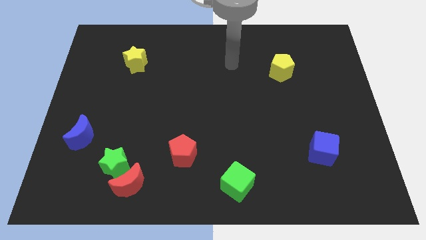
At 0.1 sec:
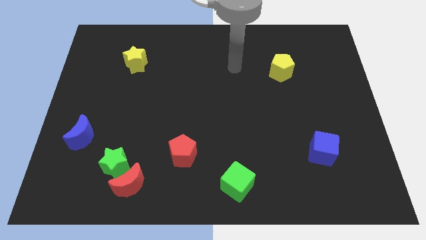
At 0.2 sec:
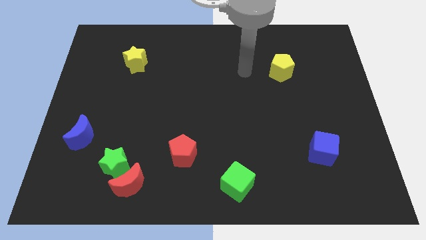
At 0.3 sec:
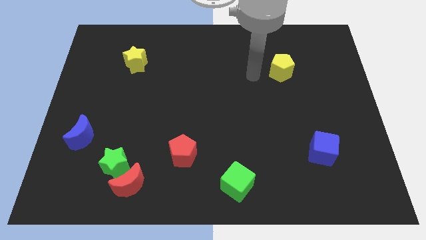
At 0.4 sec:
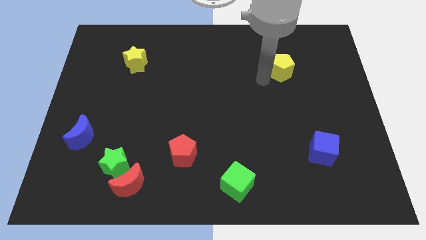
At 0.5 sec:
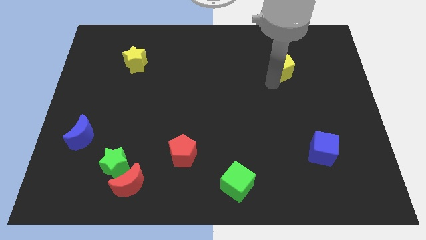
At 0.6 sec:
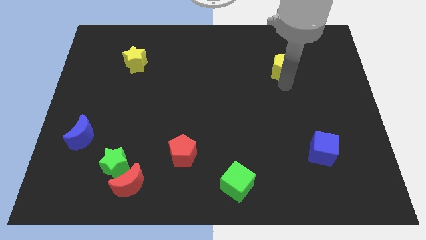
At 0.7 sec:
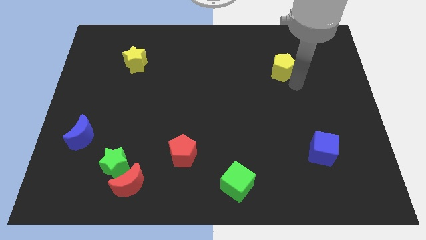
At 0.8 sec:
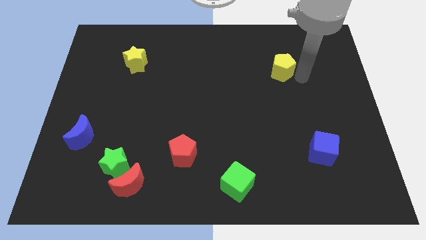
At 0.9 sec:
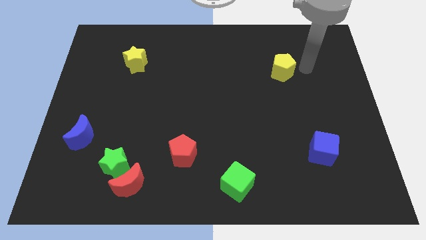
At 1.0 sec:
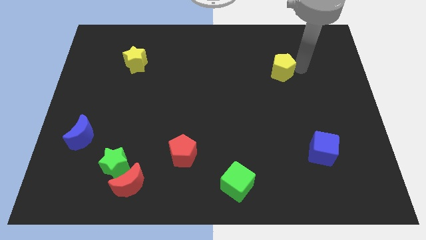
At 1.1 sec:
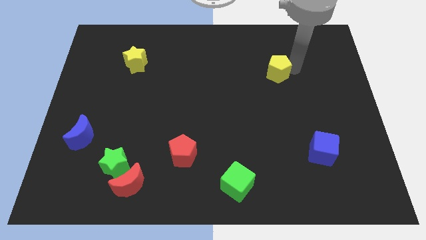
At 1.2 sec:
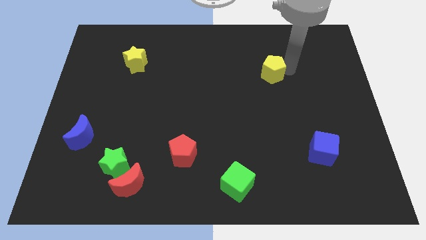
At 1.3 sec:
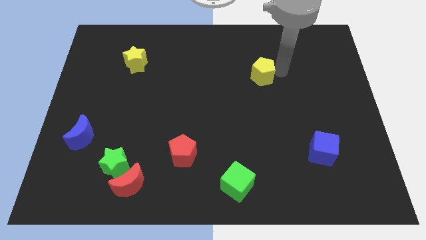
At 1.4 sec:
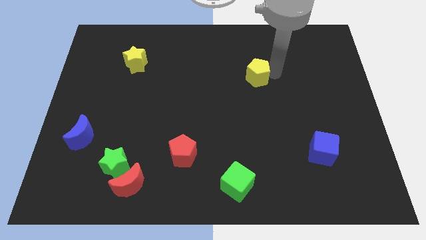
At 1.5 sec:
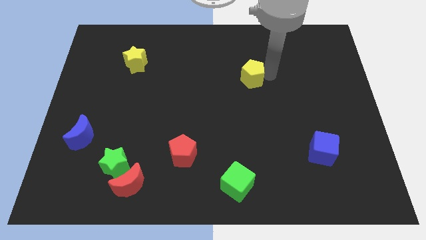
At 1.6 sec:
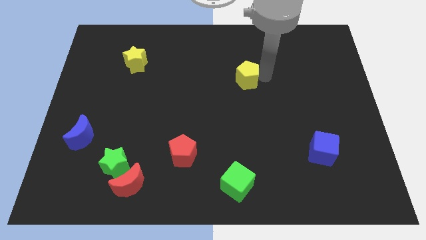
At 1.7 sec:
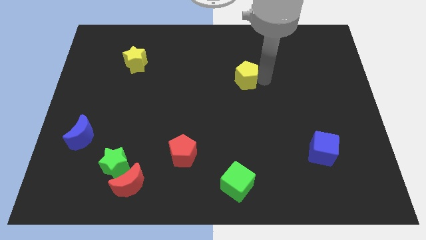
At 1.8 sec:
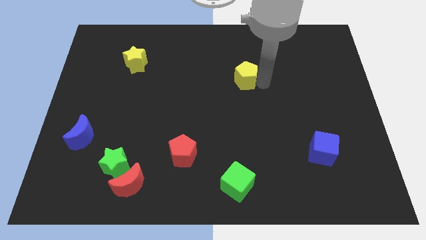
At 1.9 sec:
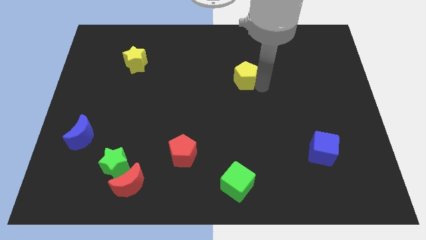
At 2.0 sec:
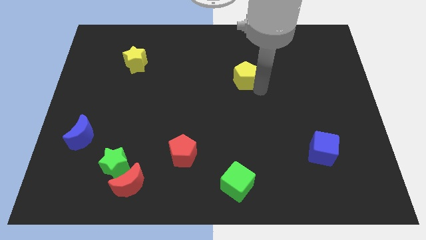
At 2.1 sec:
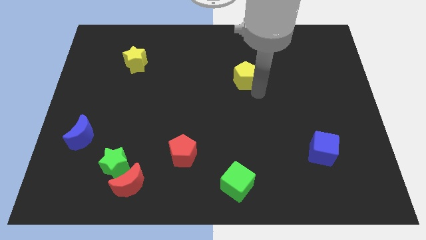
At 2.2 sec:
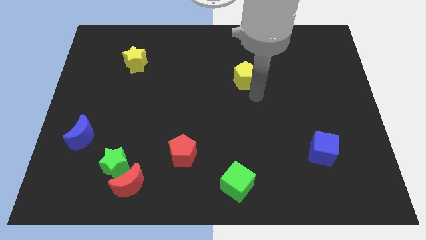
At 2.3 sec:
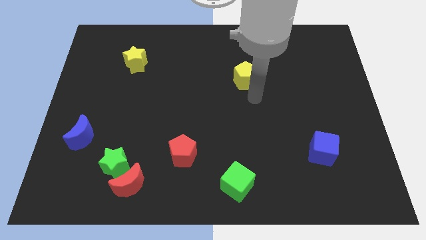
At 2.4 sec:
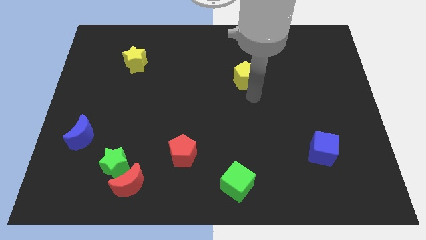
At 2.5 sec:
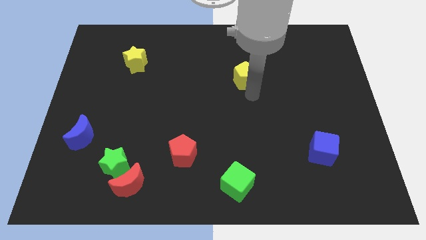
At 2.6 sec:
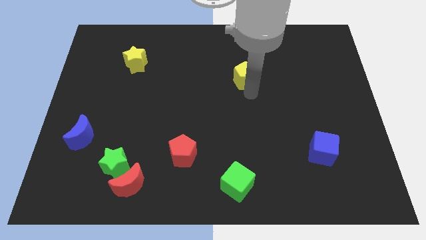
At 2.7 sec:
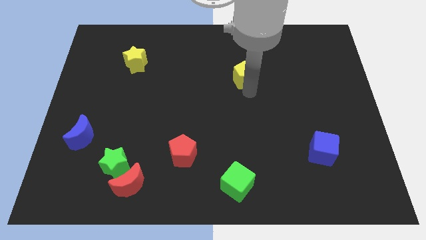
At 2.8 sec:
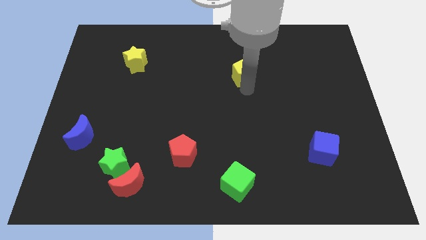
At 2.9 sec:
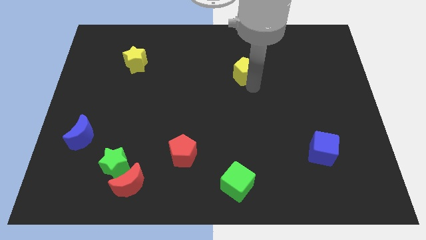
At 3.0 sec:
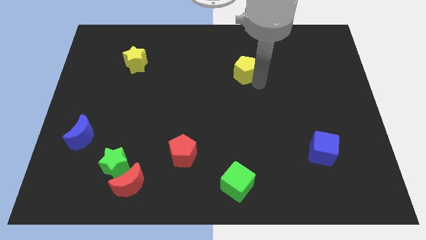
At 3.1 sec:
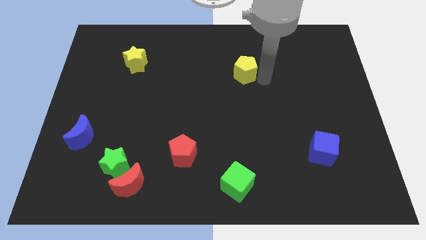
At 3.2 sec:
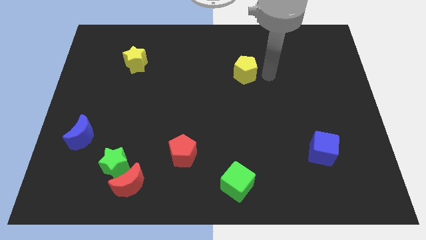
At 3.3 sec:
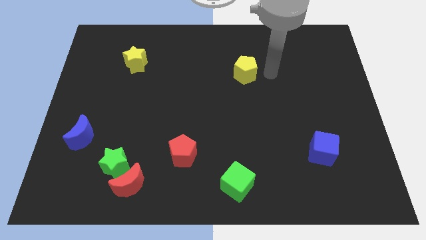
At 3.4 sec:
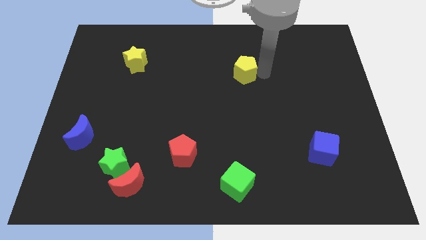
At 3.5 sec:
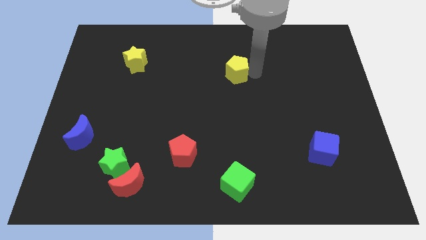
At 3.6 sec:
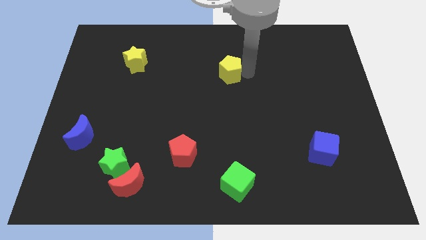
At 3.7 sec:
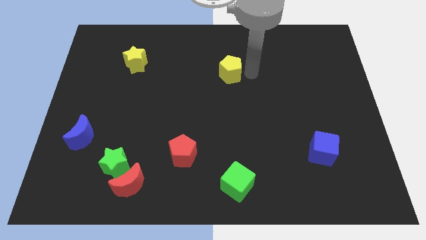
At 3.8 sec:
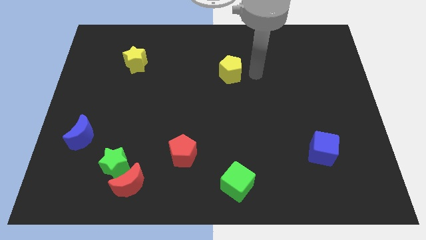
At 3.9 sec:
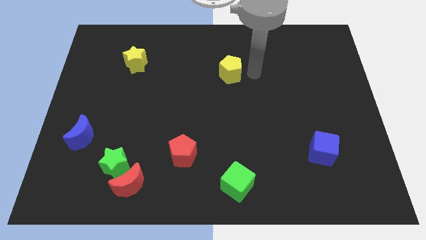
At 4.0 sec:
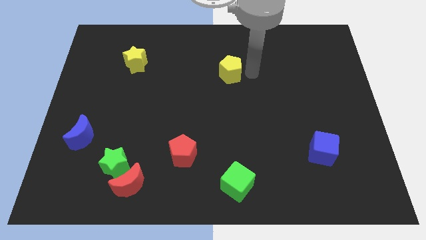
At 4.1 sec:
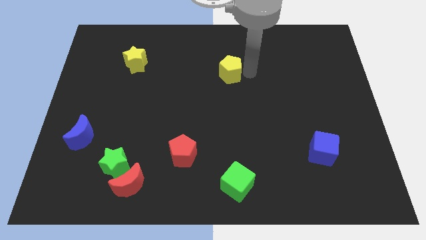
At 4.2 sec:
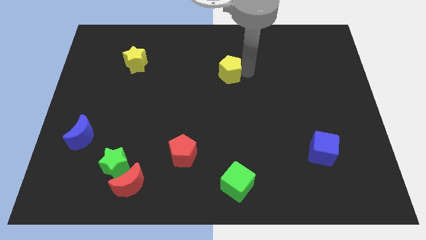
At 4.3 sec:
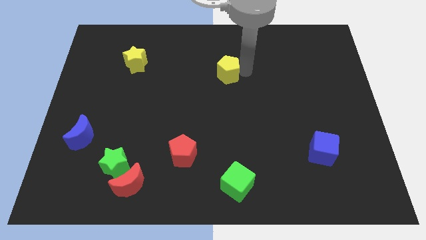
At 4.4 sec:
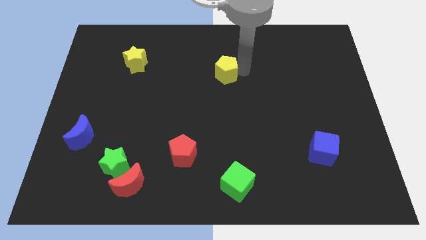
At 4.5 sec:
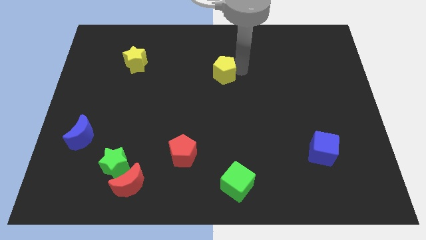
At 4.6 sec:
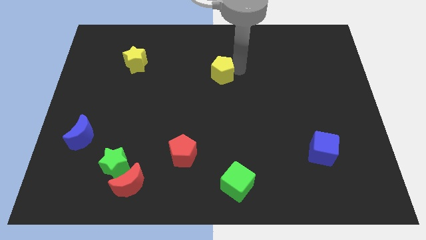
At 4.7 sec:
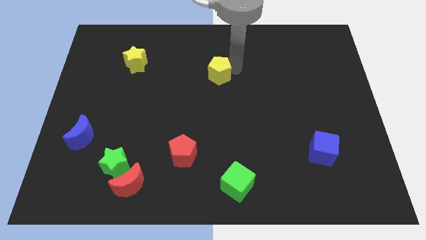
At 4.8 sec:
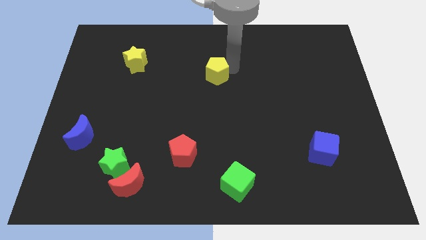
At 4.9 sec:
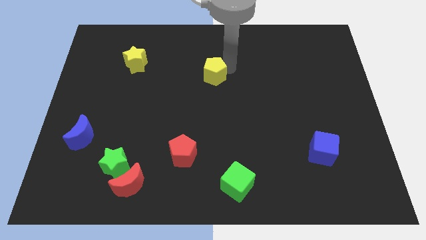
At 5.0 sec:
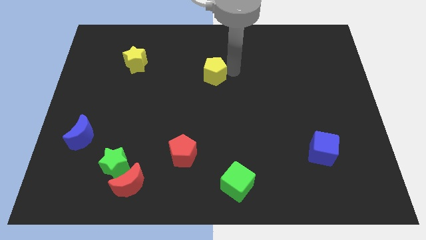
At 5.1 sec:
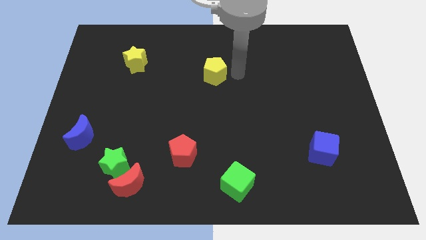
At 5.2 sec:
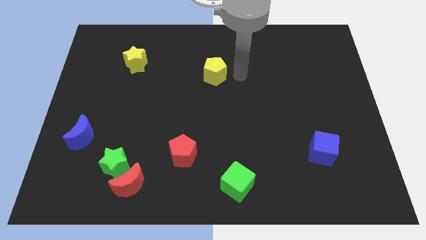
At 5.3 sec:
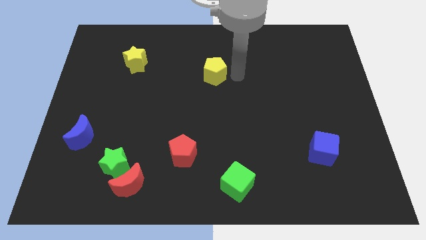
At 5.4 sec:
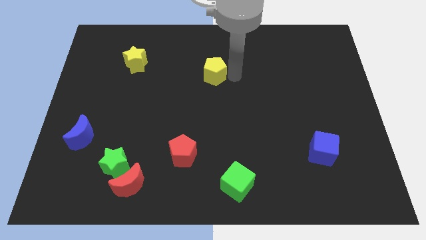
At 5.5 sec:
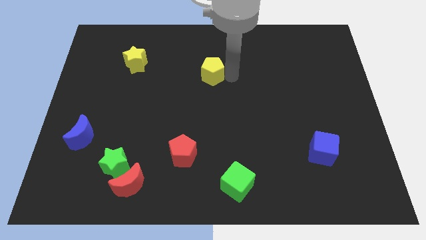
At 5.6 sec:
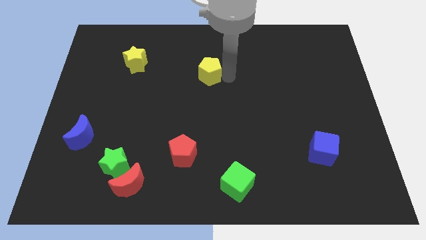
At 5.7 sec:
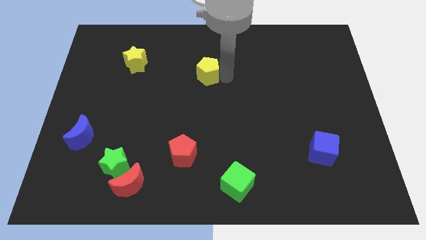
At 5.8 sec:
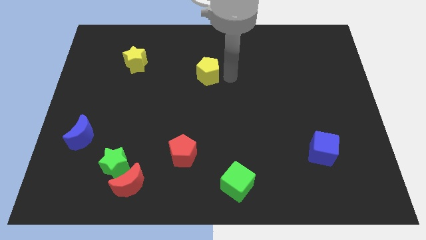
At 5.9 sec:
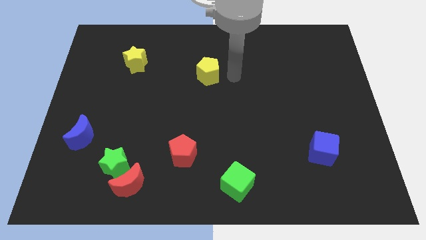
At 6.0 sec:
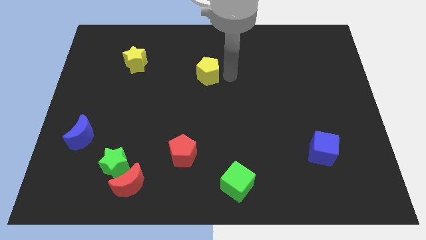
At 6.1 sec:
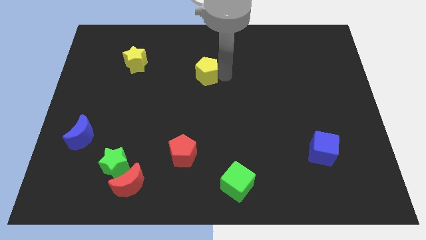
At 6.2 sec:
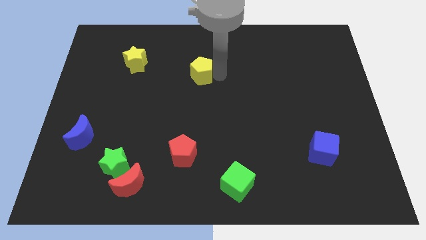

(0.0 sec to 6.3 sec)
move the yellow pentagon left

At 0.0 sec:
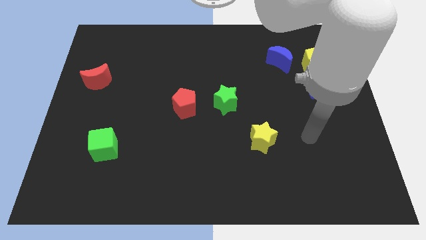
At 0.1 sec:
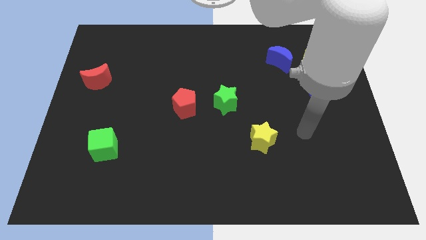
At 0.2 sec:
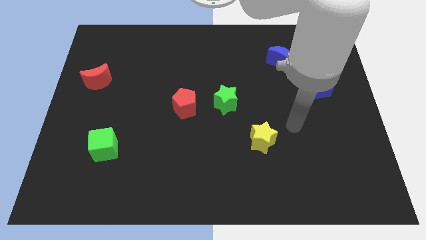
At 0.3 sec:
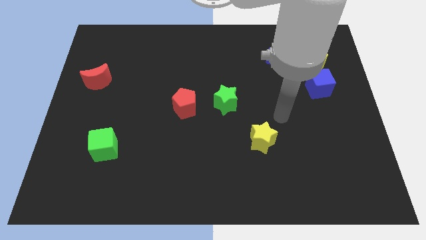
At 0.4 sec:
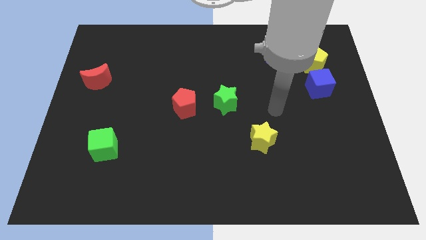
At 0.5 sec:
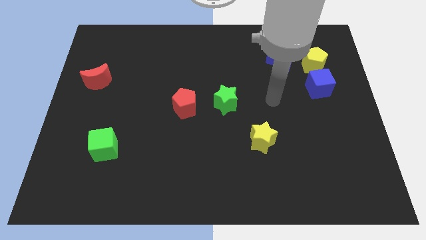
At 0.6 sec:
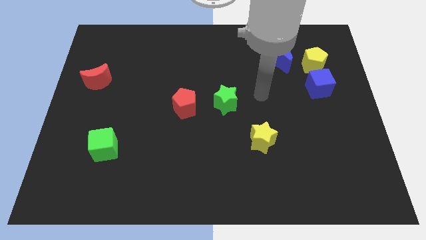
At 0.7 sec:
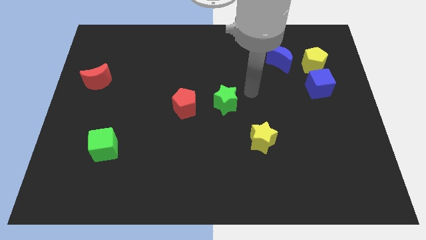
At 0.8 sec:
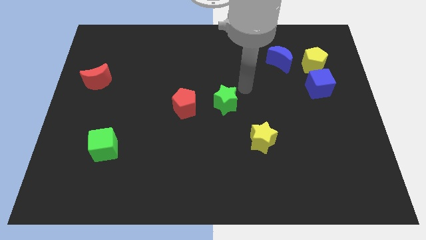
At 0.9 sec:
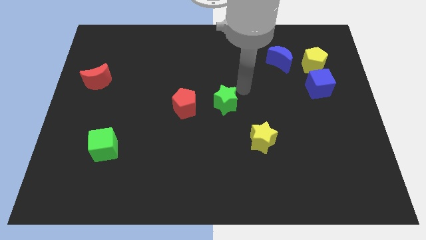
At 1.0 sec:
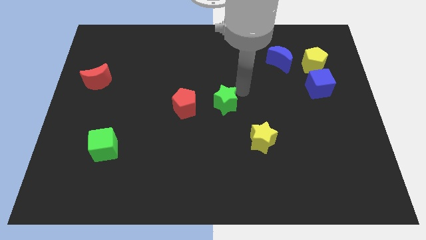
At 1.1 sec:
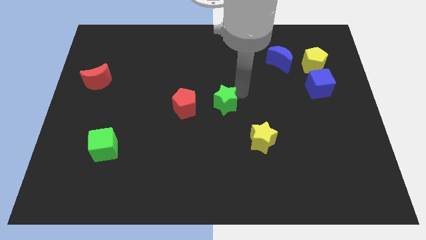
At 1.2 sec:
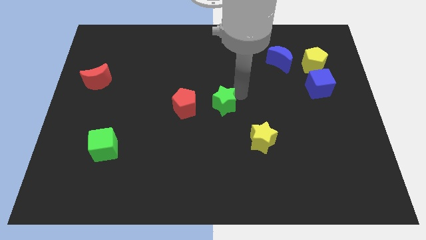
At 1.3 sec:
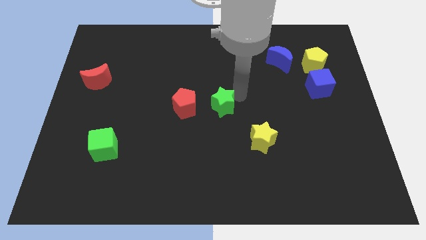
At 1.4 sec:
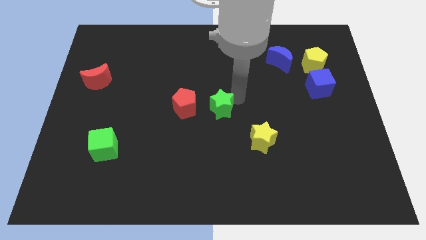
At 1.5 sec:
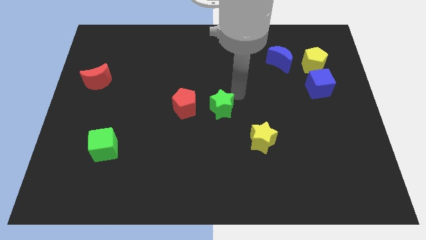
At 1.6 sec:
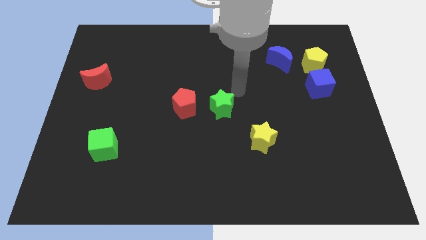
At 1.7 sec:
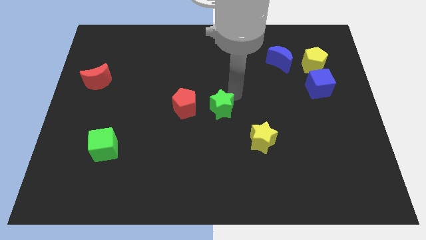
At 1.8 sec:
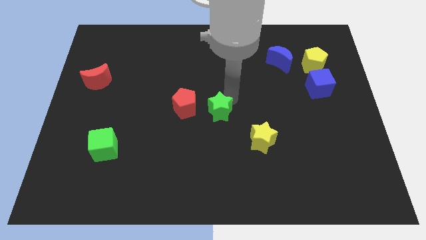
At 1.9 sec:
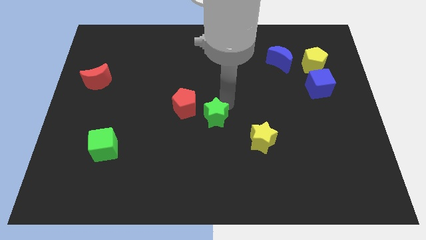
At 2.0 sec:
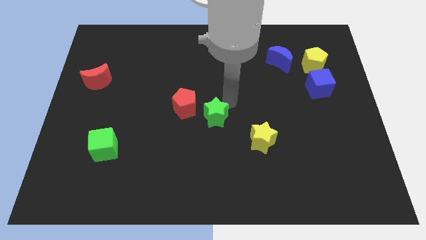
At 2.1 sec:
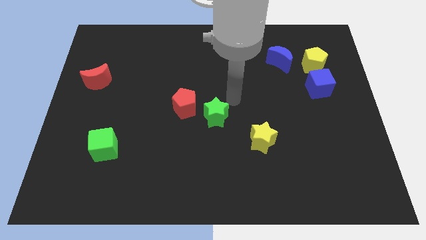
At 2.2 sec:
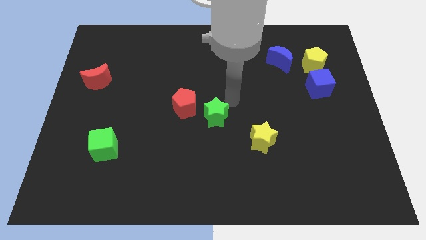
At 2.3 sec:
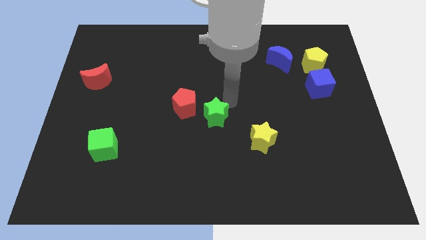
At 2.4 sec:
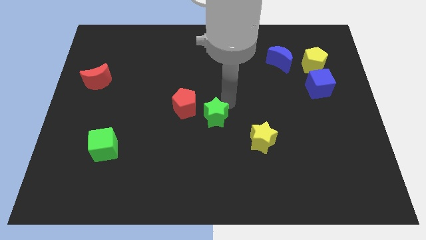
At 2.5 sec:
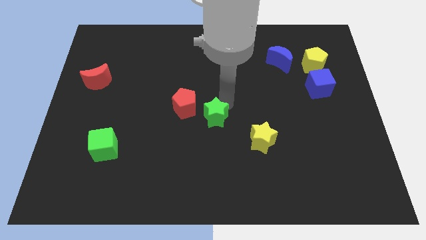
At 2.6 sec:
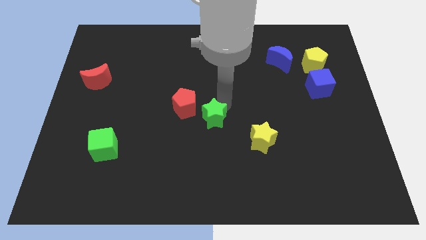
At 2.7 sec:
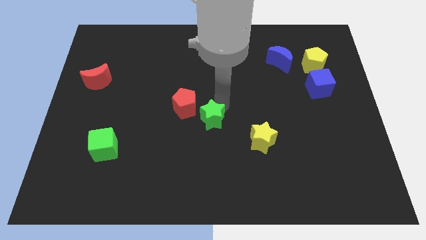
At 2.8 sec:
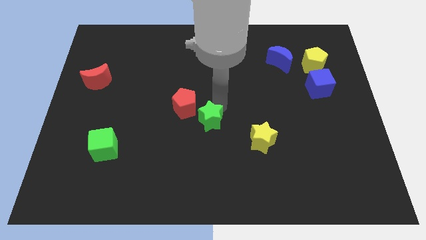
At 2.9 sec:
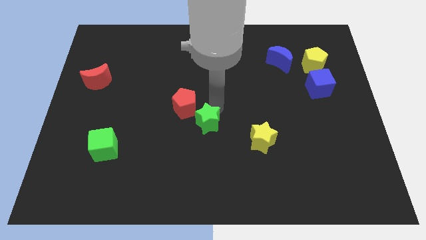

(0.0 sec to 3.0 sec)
move the green star downwards and to the left somewhat
